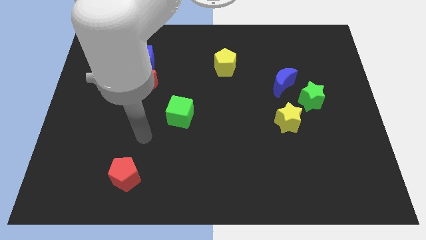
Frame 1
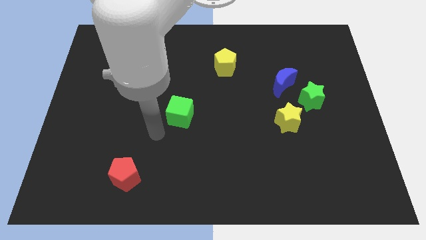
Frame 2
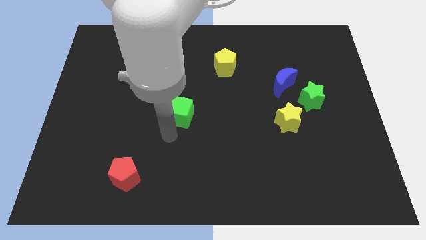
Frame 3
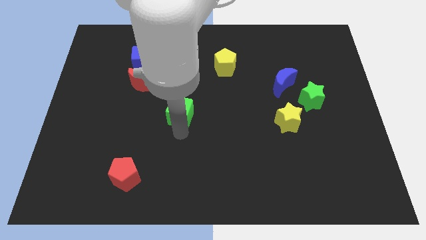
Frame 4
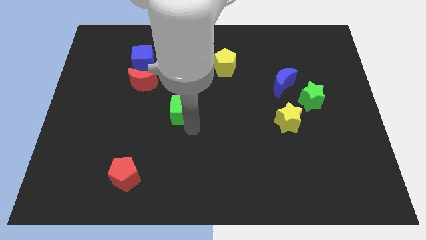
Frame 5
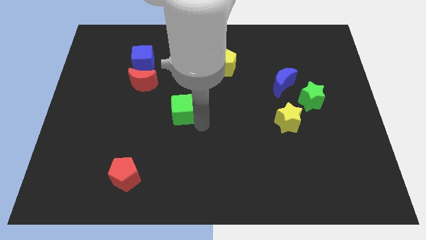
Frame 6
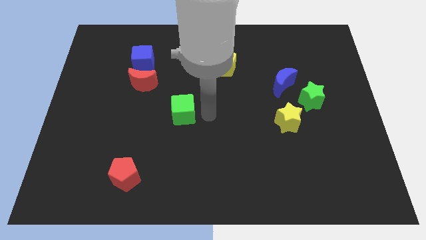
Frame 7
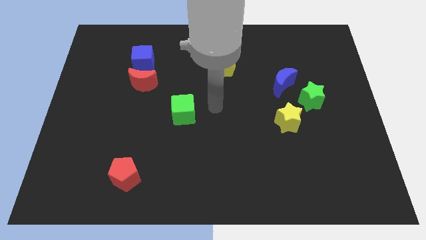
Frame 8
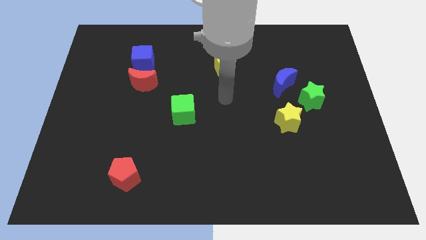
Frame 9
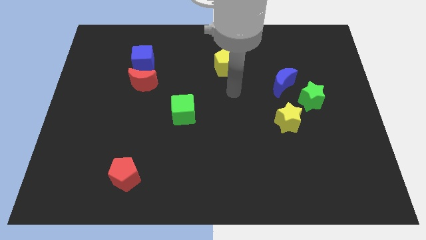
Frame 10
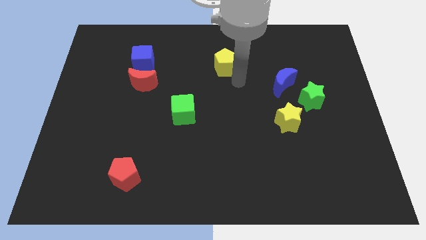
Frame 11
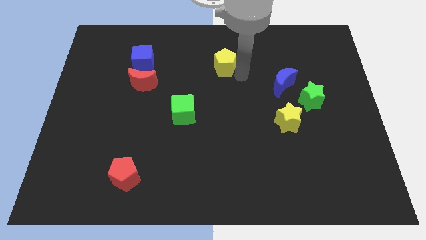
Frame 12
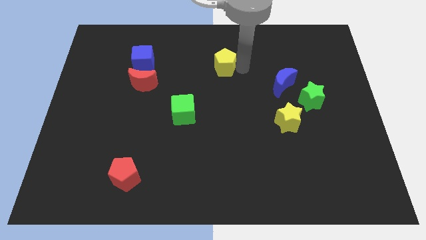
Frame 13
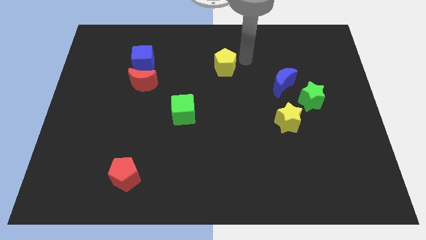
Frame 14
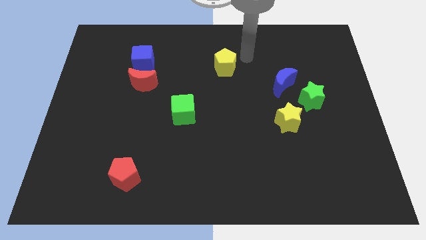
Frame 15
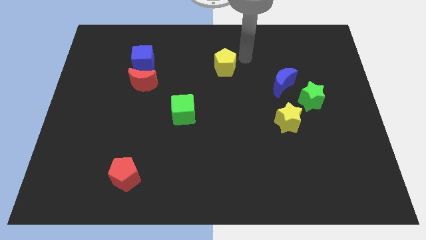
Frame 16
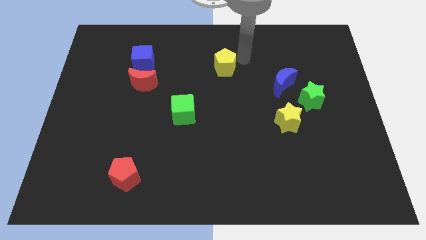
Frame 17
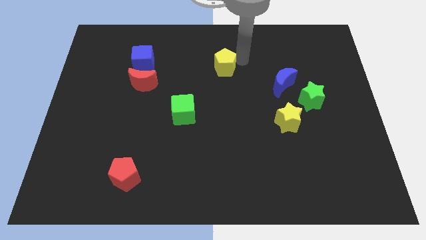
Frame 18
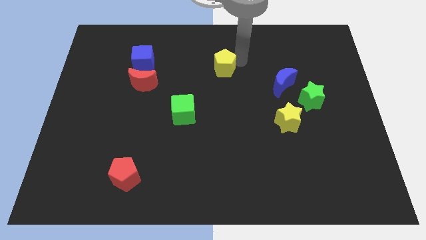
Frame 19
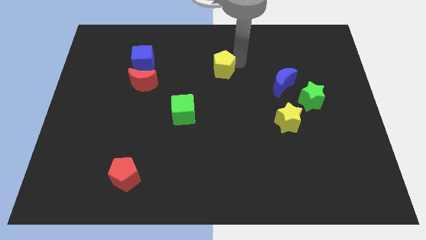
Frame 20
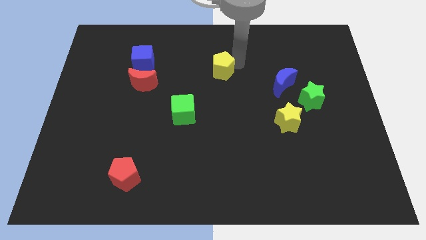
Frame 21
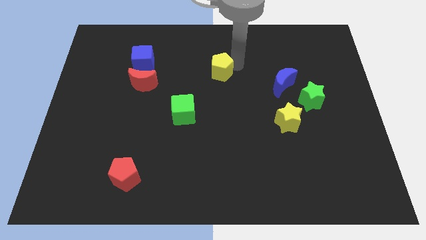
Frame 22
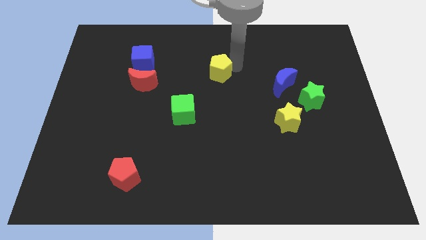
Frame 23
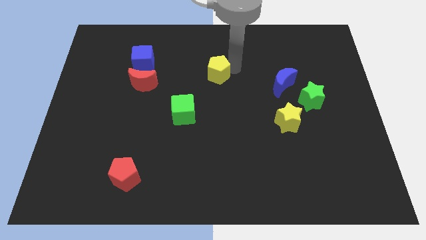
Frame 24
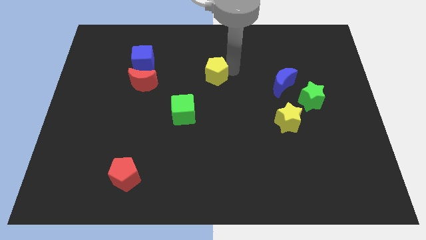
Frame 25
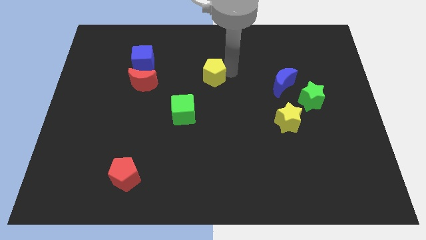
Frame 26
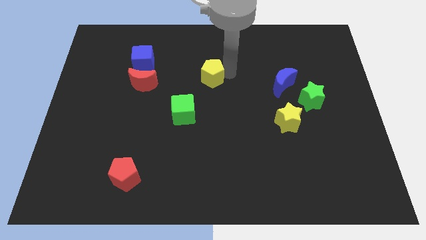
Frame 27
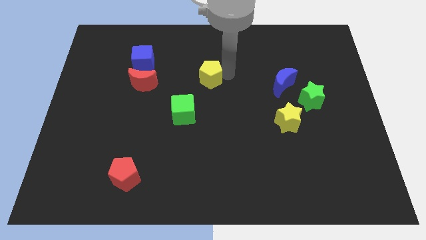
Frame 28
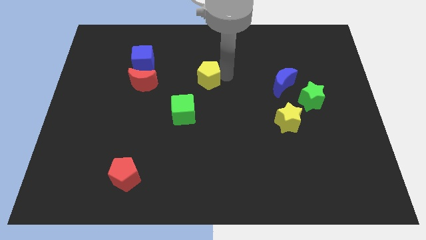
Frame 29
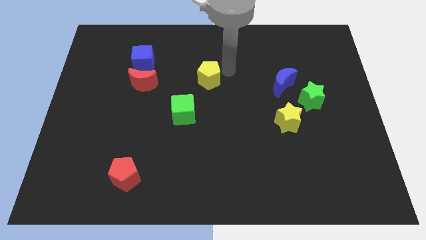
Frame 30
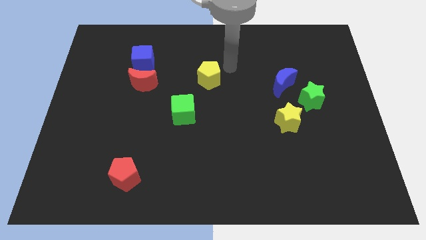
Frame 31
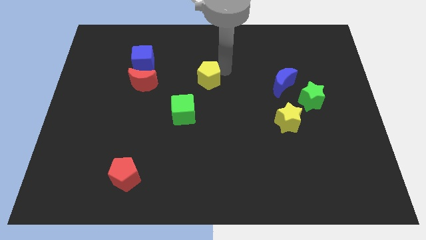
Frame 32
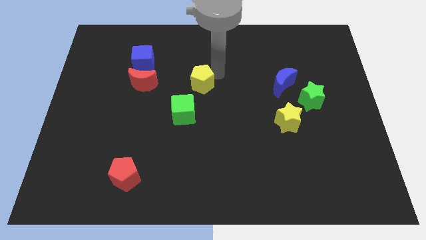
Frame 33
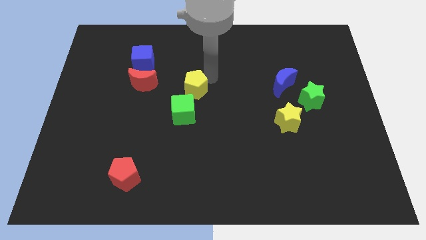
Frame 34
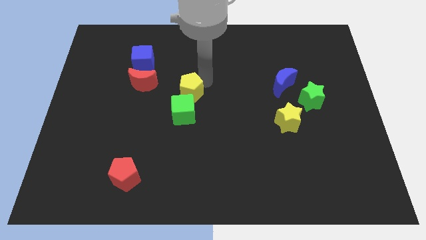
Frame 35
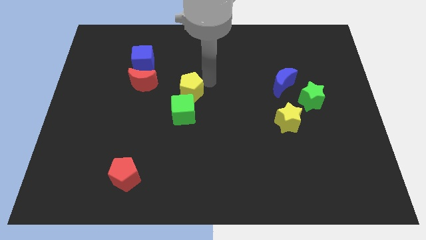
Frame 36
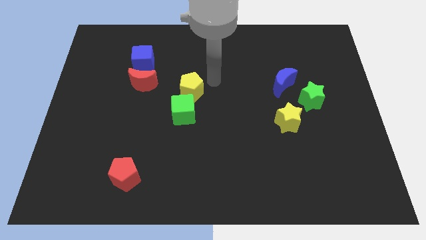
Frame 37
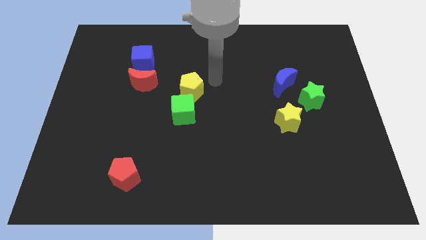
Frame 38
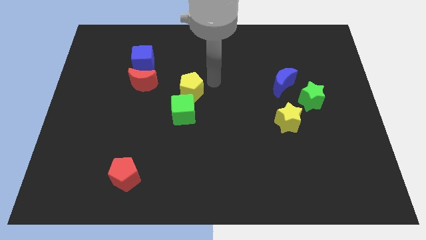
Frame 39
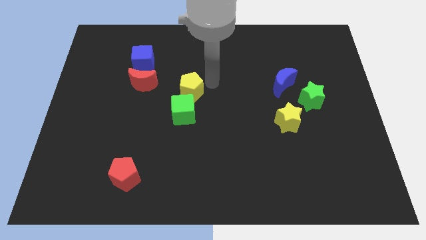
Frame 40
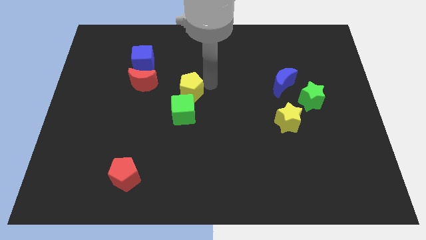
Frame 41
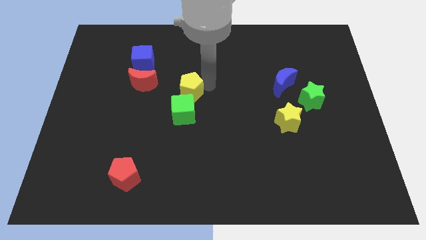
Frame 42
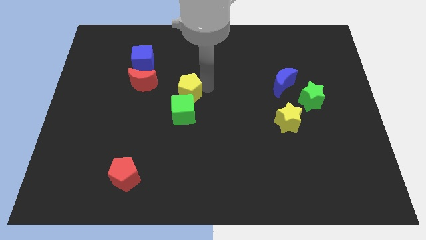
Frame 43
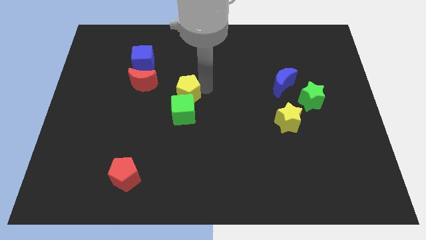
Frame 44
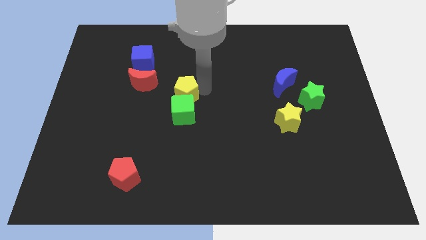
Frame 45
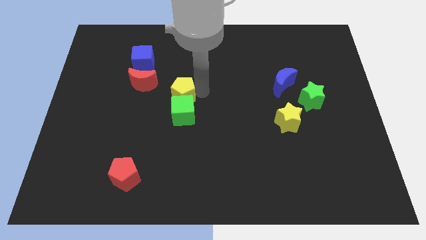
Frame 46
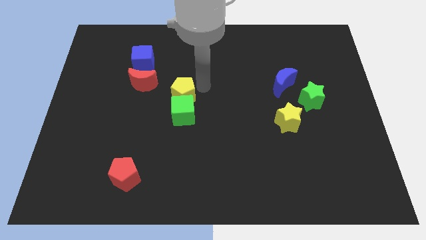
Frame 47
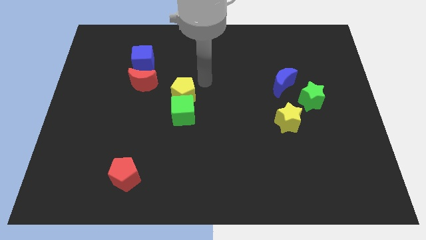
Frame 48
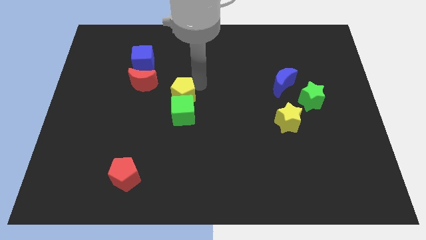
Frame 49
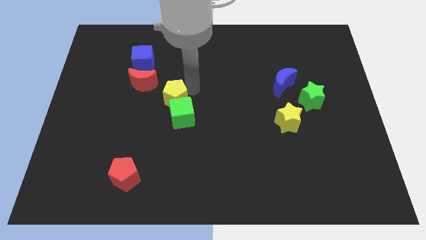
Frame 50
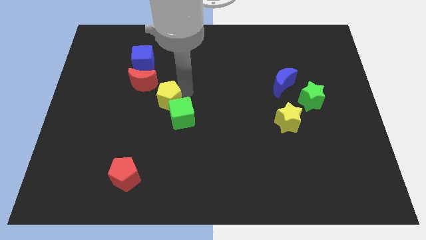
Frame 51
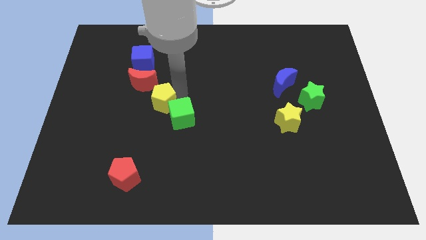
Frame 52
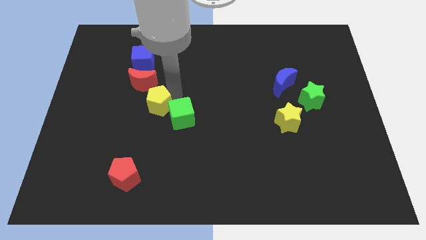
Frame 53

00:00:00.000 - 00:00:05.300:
slide the yellow pentagon down and left diagonally

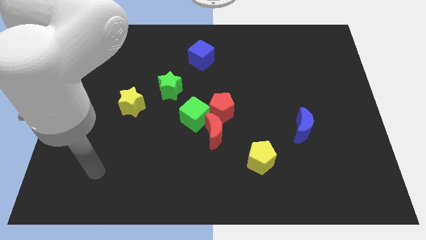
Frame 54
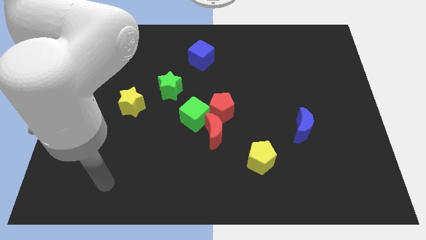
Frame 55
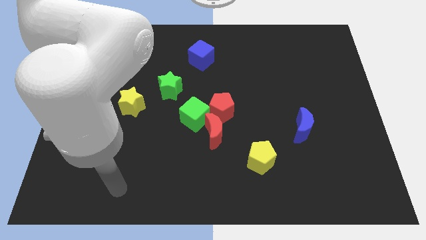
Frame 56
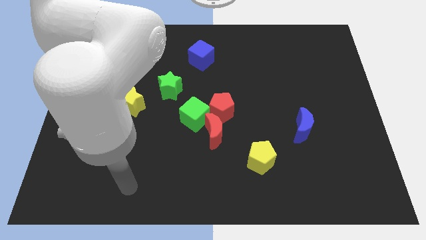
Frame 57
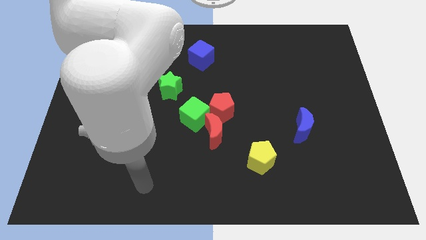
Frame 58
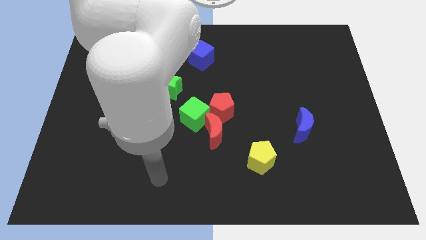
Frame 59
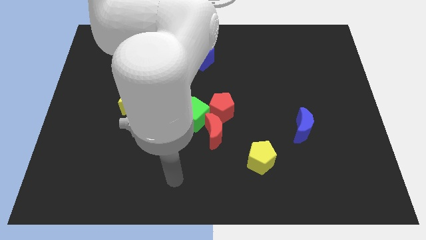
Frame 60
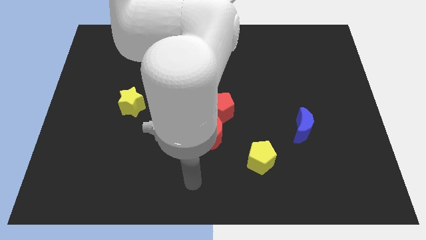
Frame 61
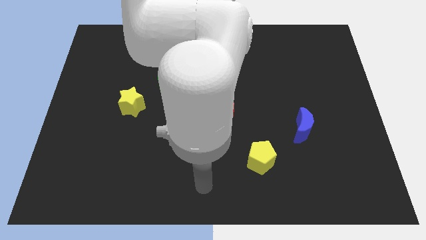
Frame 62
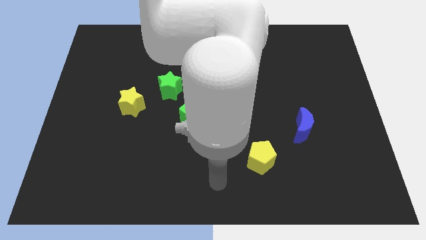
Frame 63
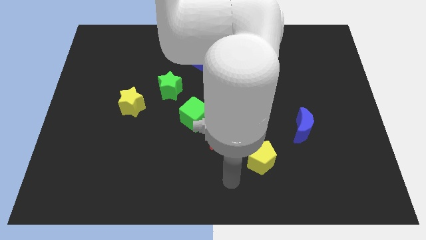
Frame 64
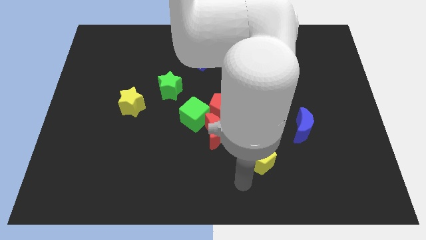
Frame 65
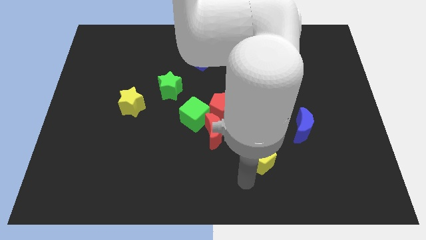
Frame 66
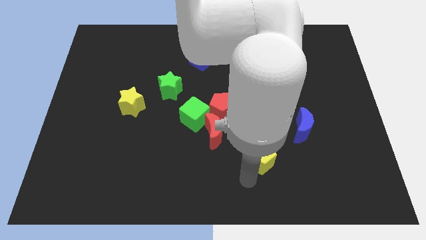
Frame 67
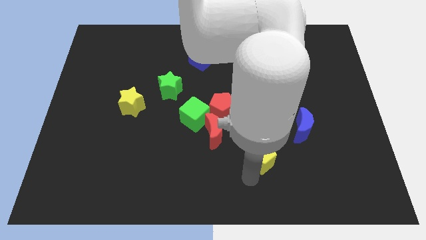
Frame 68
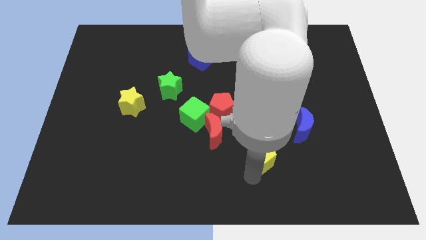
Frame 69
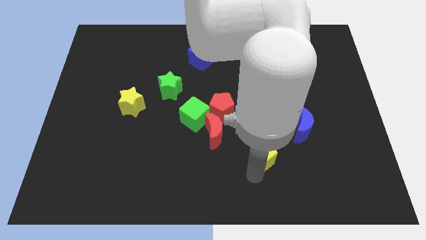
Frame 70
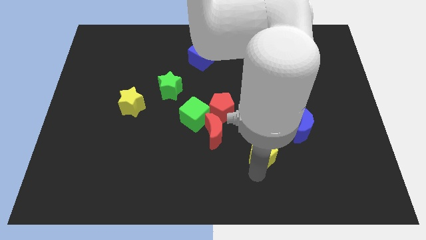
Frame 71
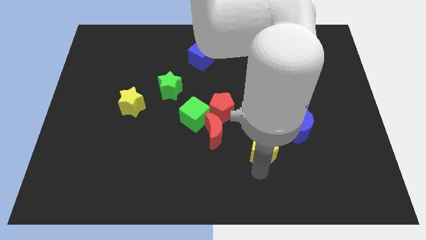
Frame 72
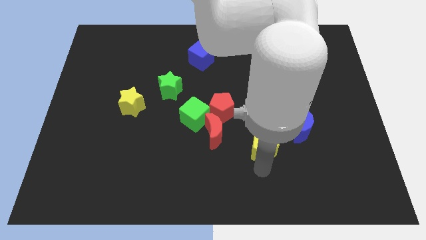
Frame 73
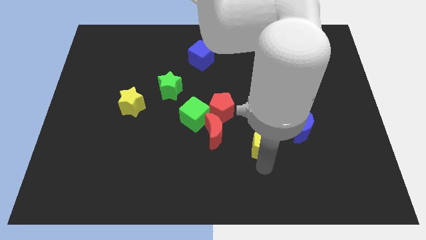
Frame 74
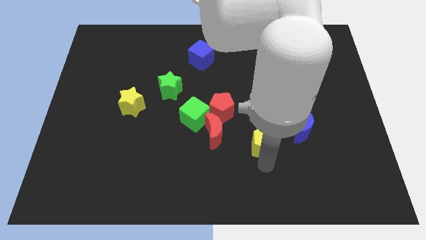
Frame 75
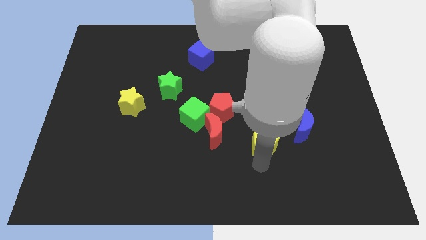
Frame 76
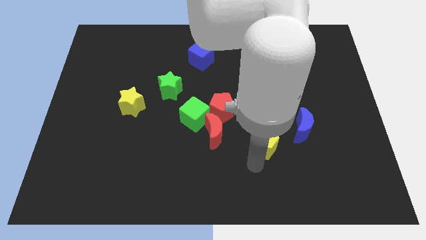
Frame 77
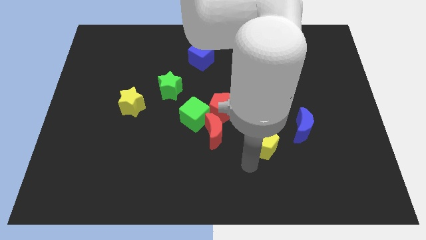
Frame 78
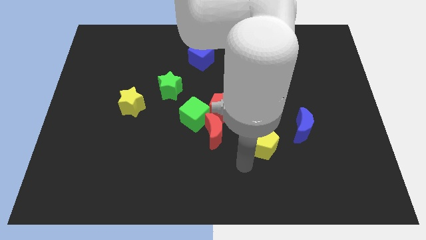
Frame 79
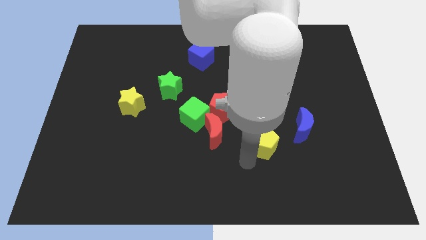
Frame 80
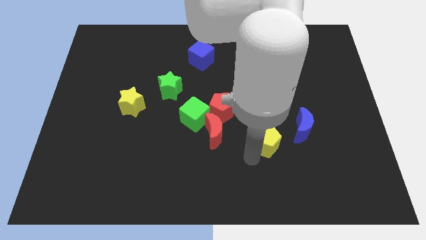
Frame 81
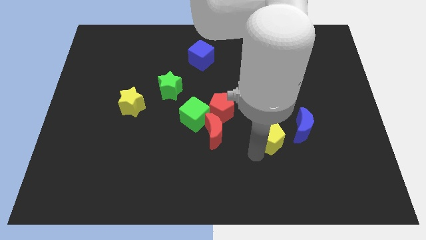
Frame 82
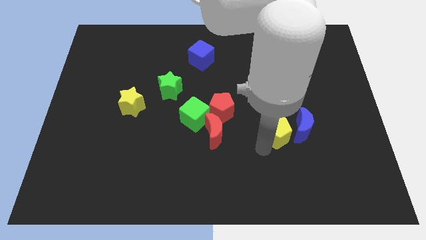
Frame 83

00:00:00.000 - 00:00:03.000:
push the yellow pentagon upwards and right a bit
